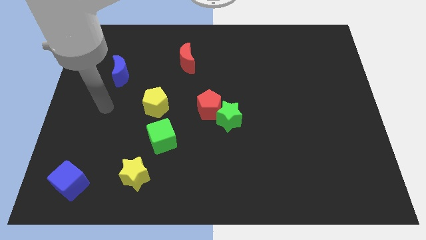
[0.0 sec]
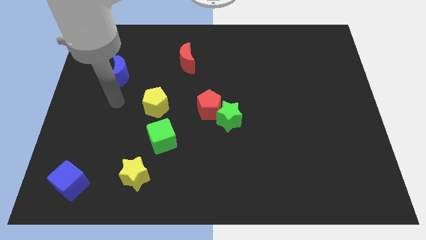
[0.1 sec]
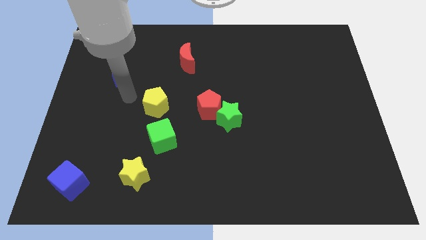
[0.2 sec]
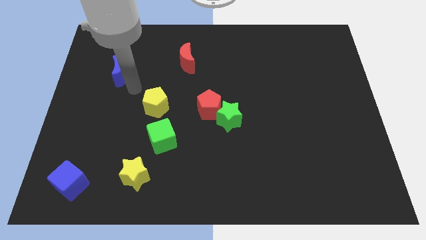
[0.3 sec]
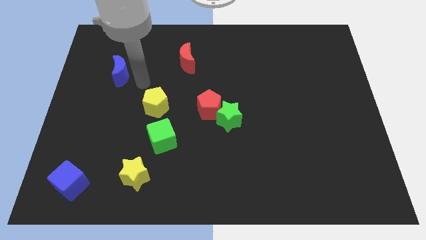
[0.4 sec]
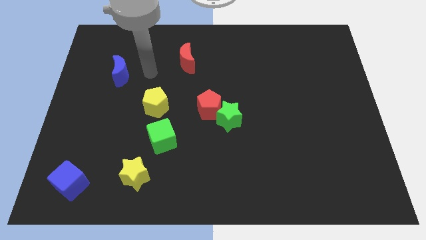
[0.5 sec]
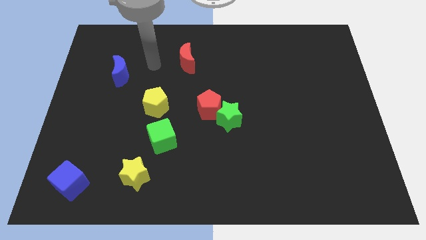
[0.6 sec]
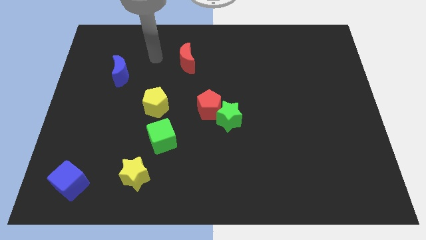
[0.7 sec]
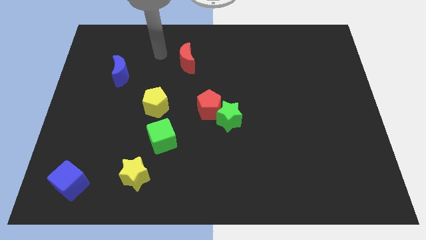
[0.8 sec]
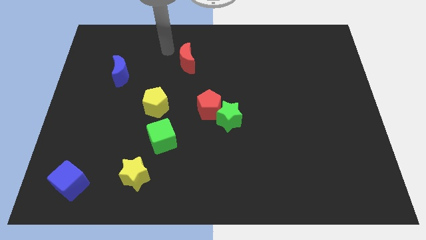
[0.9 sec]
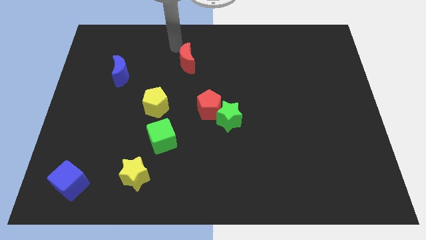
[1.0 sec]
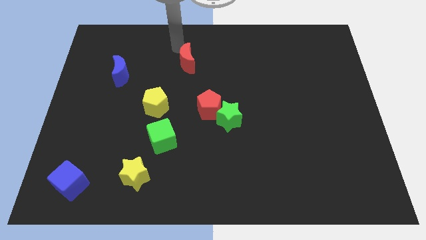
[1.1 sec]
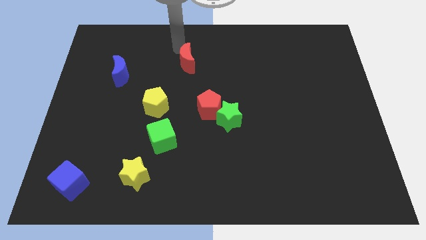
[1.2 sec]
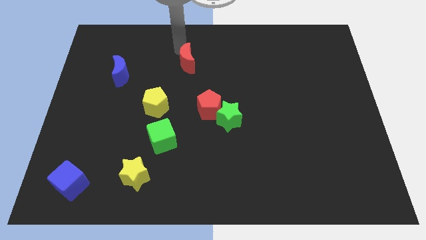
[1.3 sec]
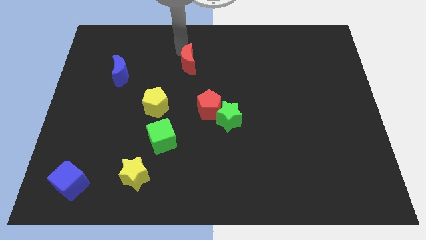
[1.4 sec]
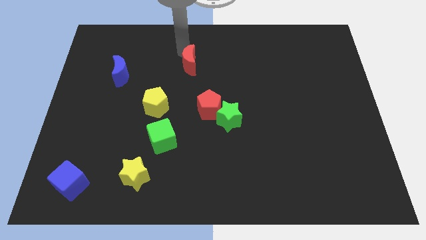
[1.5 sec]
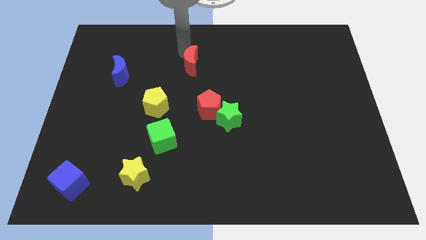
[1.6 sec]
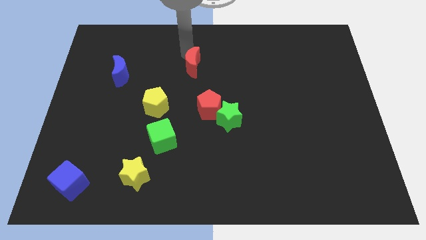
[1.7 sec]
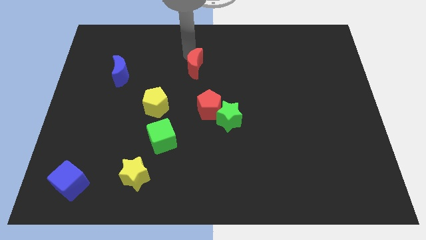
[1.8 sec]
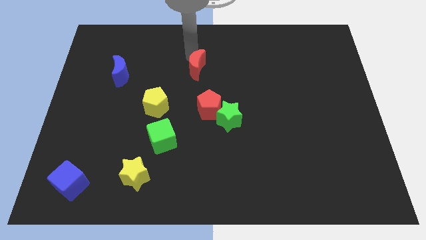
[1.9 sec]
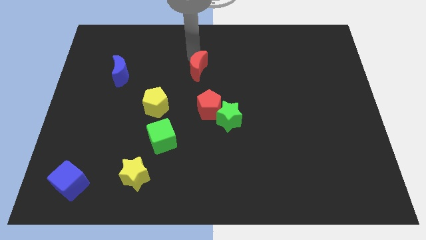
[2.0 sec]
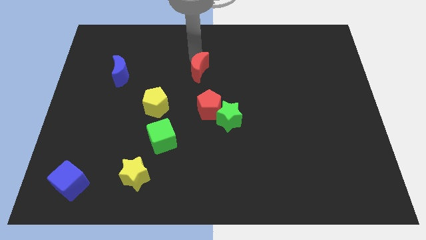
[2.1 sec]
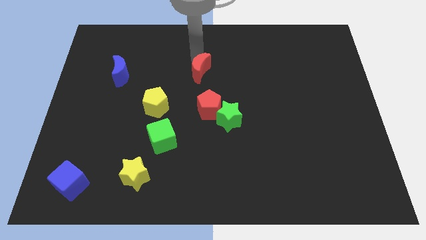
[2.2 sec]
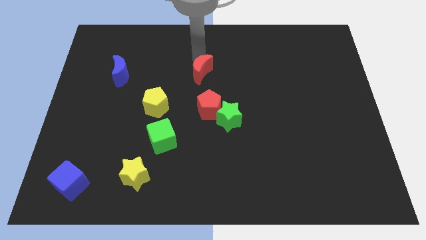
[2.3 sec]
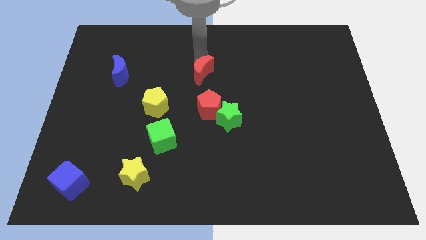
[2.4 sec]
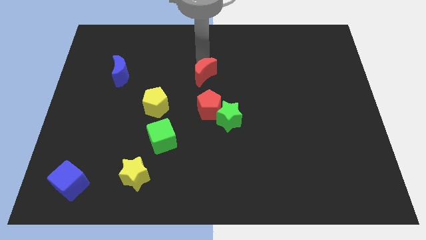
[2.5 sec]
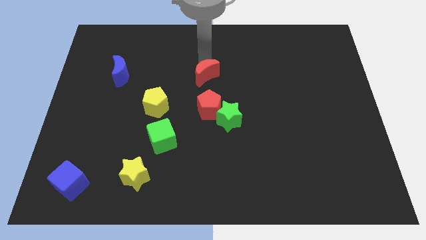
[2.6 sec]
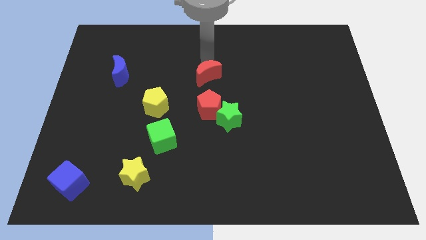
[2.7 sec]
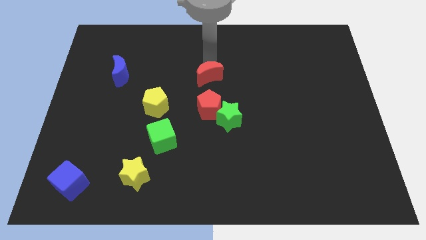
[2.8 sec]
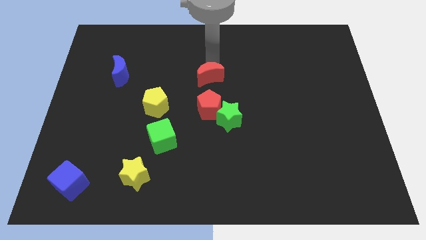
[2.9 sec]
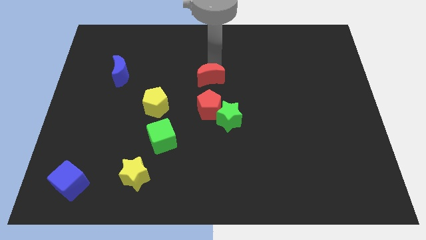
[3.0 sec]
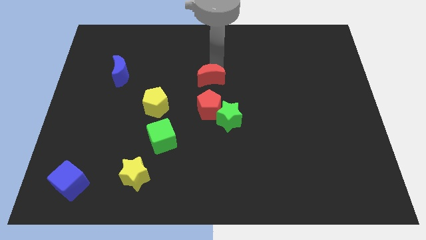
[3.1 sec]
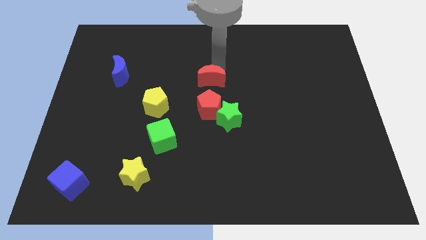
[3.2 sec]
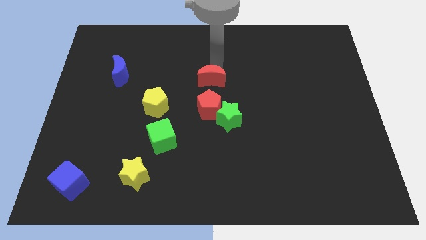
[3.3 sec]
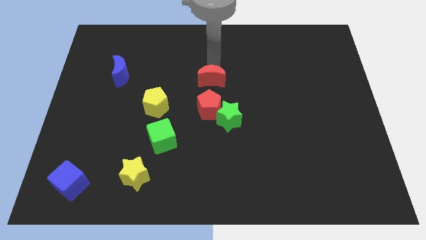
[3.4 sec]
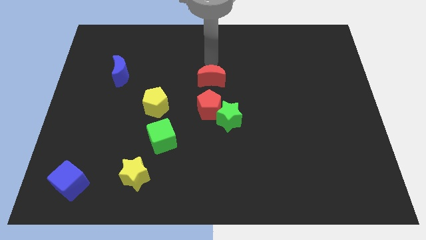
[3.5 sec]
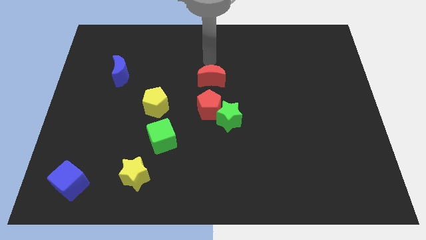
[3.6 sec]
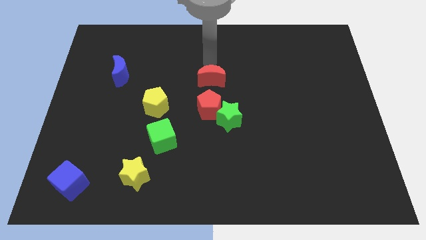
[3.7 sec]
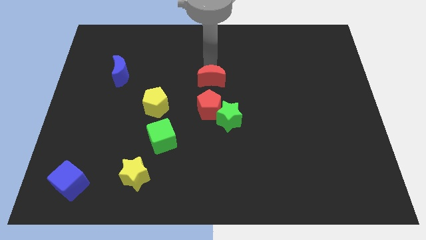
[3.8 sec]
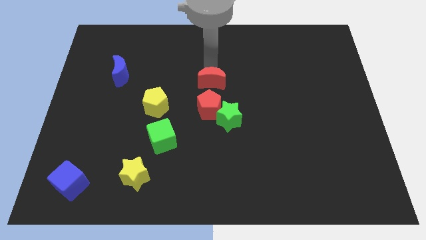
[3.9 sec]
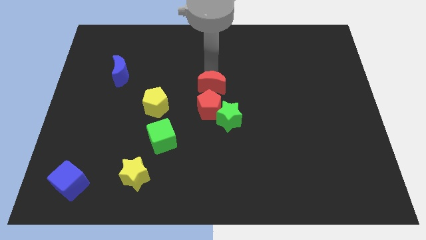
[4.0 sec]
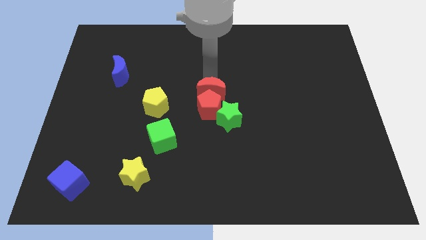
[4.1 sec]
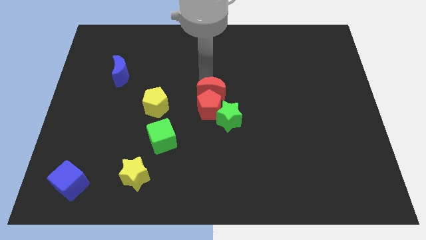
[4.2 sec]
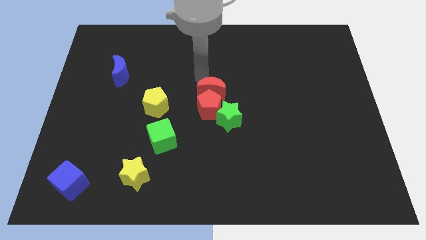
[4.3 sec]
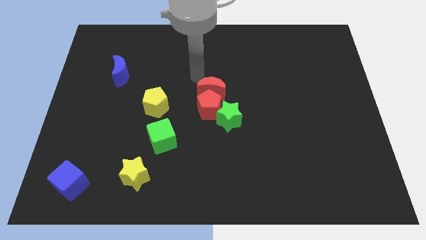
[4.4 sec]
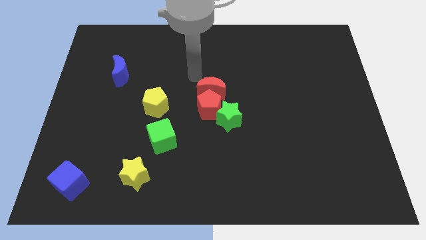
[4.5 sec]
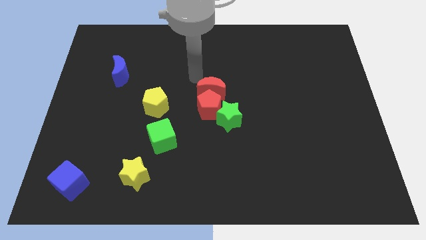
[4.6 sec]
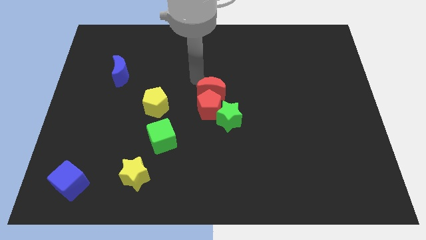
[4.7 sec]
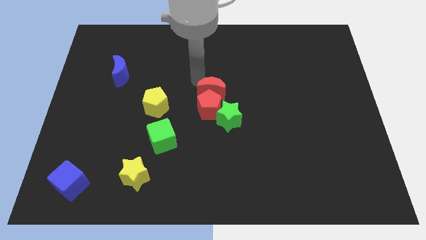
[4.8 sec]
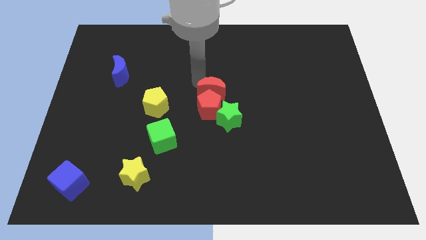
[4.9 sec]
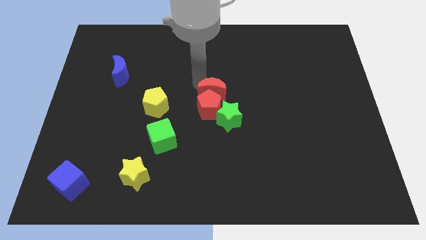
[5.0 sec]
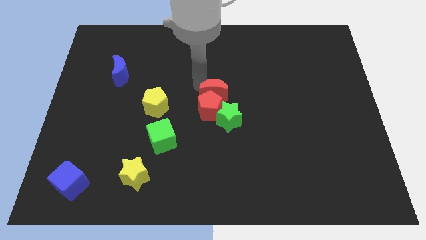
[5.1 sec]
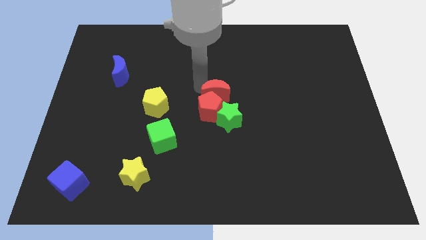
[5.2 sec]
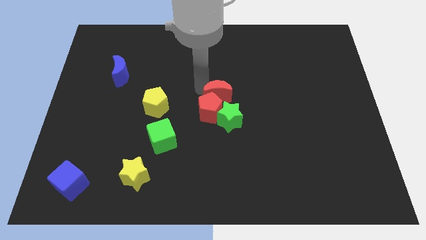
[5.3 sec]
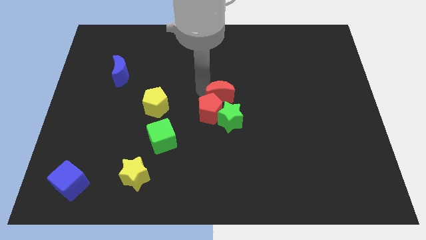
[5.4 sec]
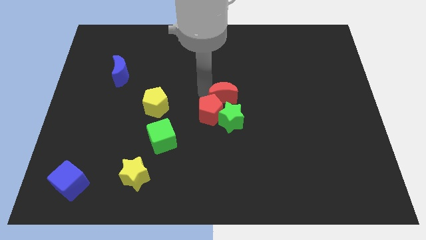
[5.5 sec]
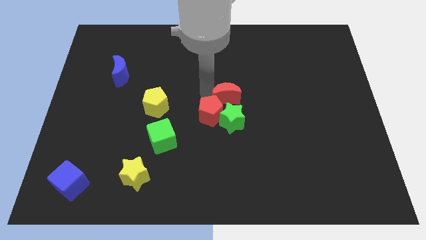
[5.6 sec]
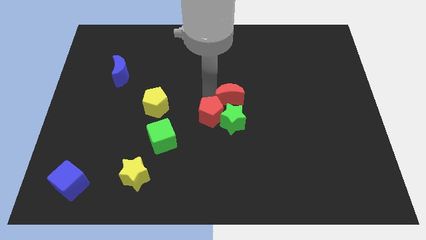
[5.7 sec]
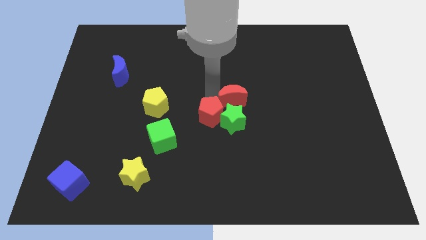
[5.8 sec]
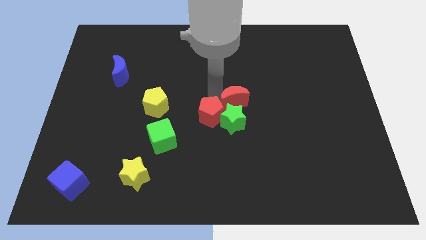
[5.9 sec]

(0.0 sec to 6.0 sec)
move the red moon close to the green star

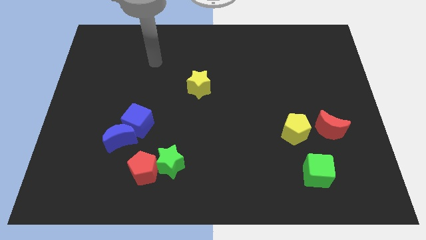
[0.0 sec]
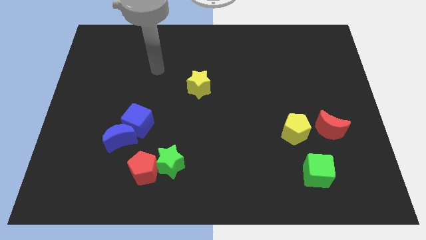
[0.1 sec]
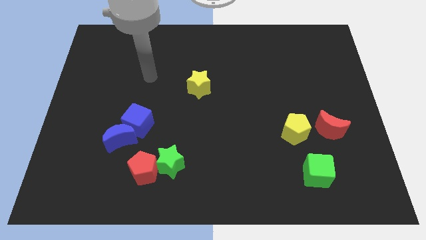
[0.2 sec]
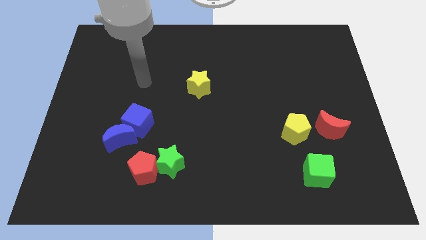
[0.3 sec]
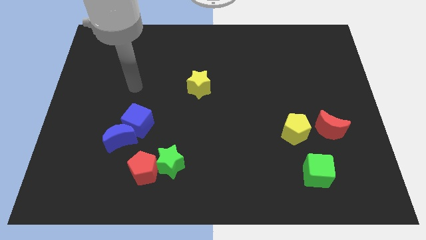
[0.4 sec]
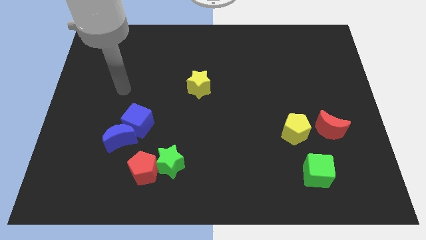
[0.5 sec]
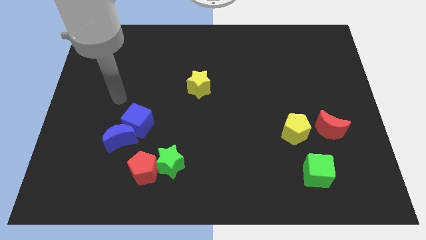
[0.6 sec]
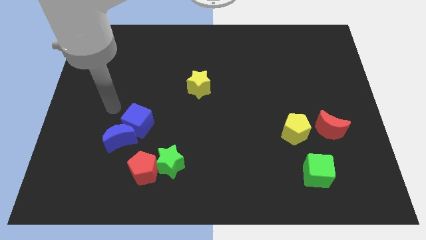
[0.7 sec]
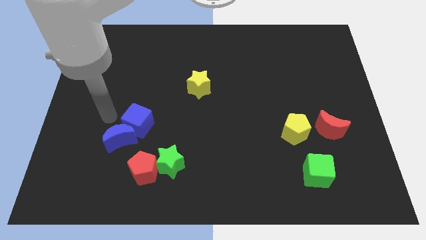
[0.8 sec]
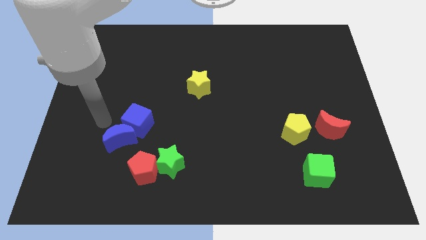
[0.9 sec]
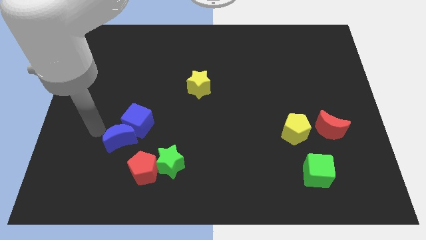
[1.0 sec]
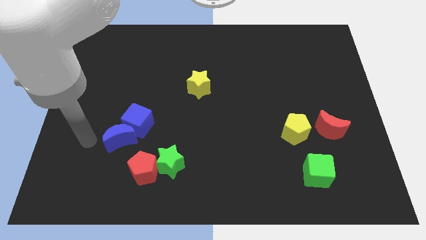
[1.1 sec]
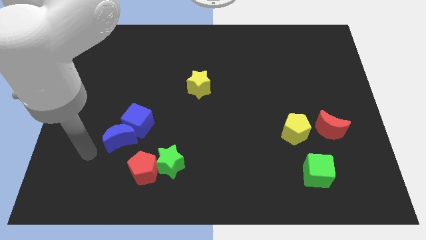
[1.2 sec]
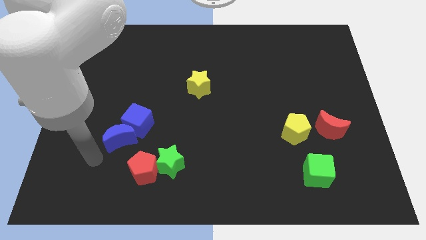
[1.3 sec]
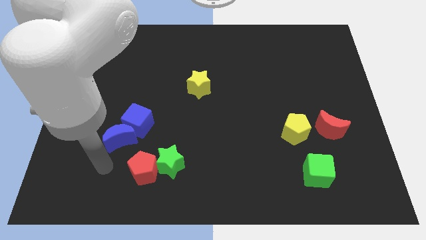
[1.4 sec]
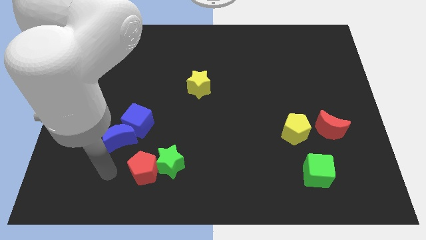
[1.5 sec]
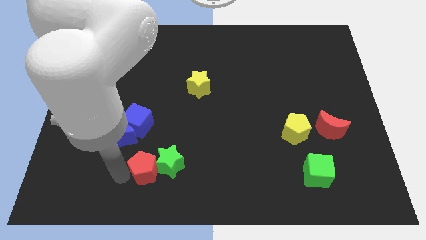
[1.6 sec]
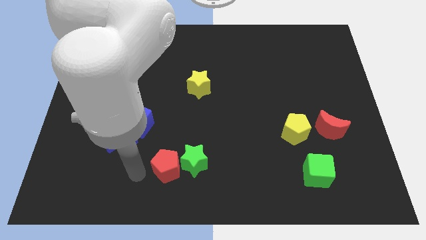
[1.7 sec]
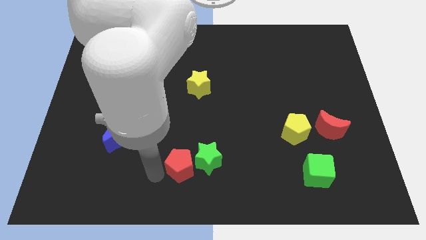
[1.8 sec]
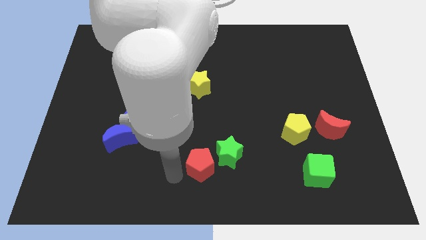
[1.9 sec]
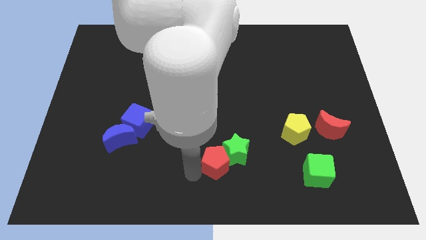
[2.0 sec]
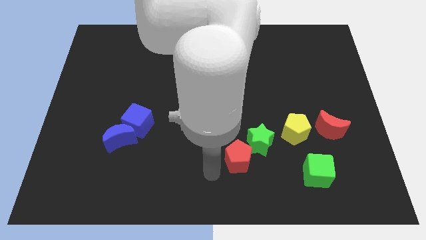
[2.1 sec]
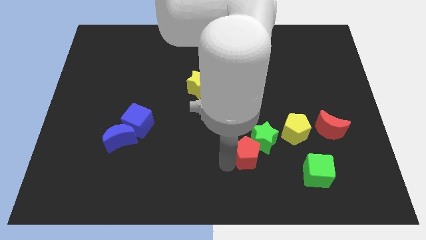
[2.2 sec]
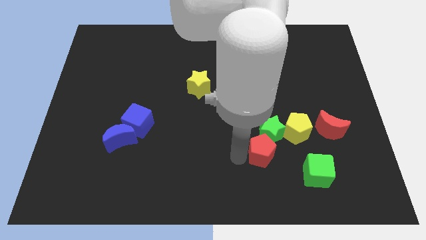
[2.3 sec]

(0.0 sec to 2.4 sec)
slide the green star towards the yellow pentagon
